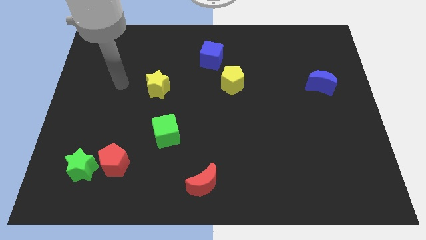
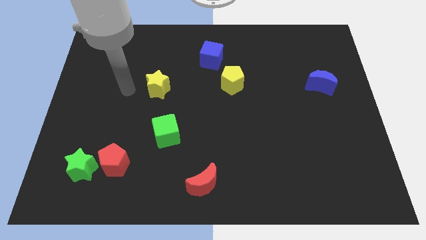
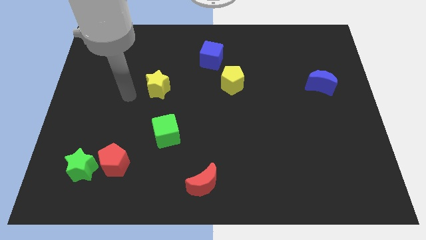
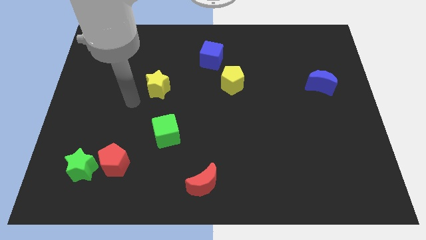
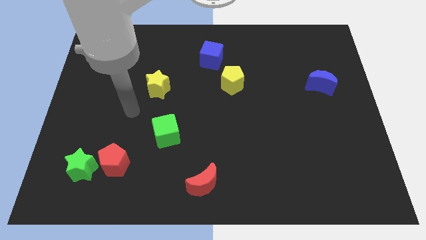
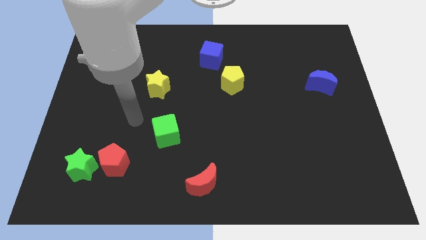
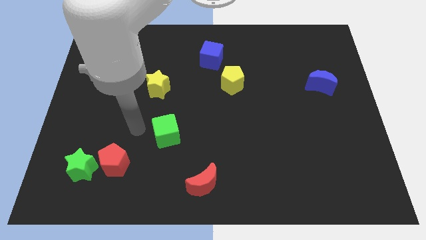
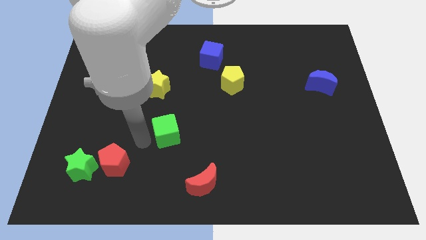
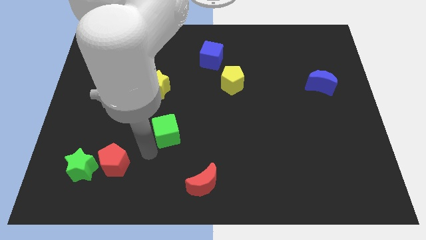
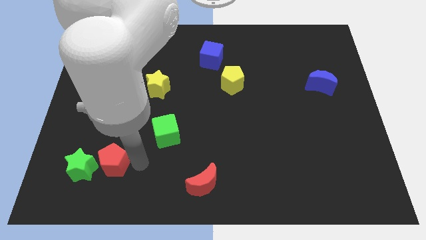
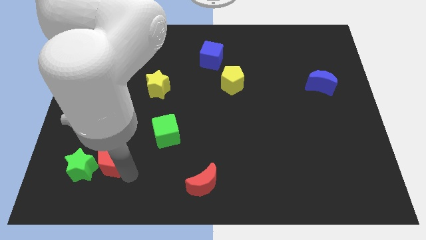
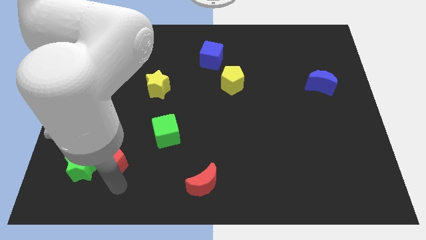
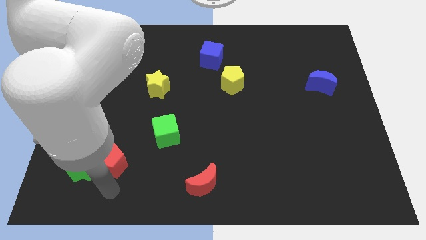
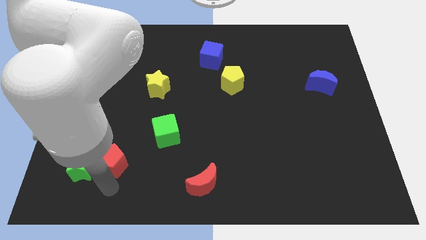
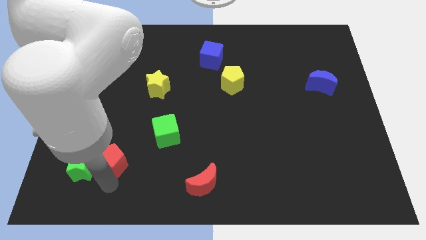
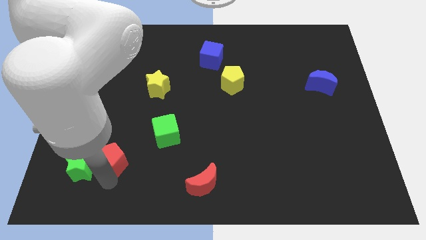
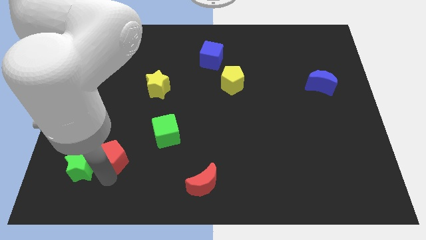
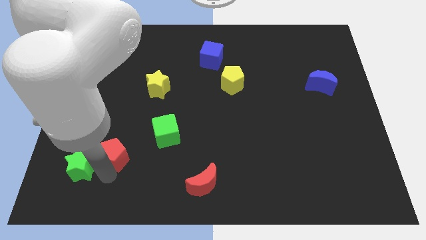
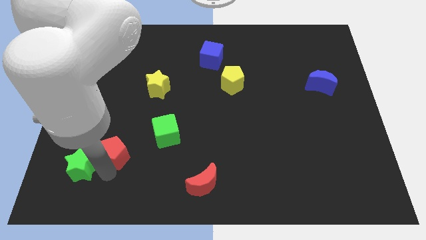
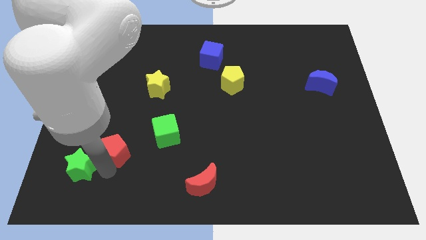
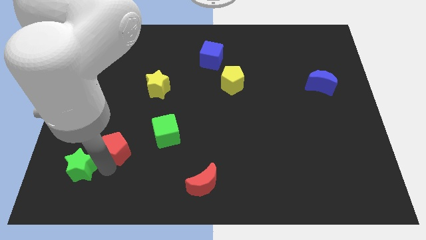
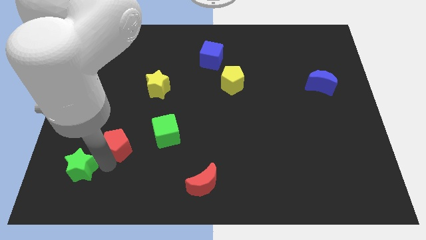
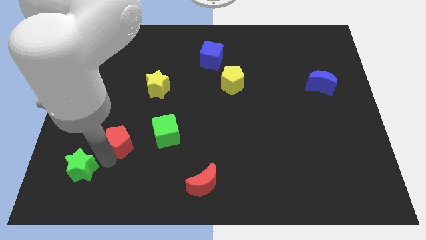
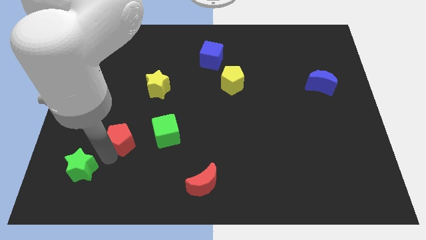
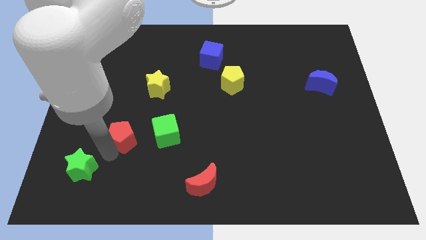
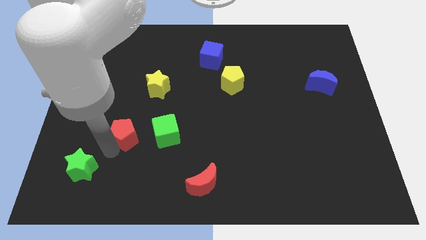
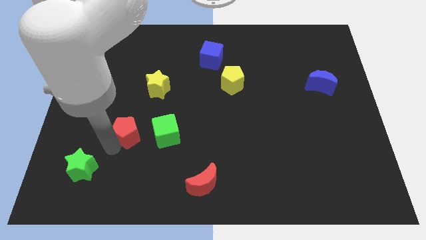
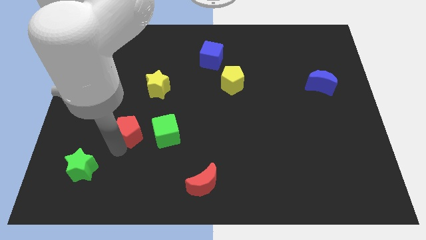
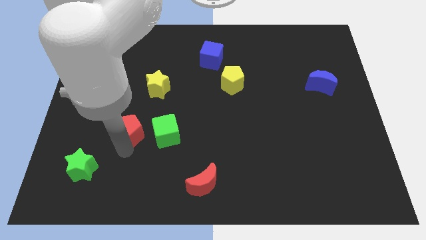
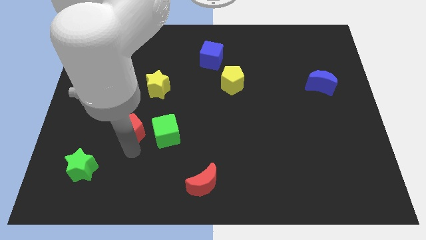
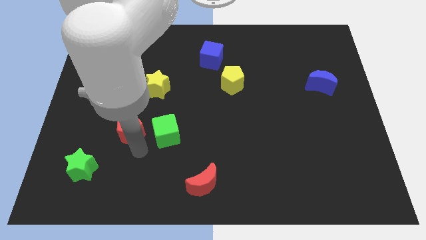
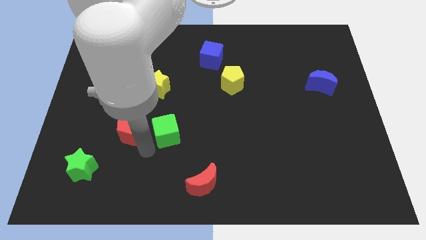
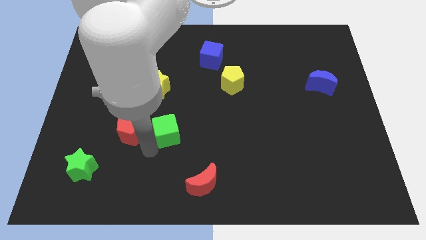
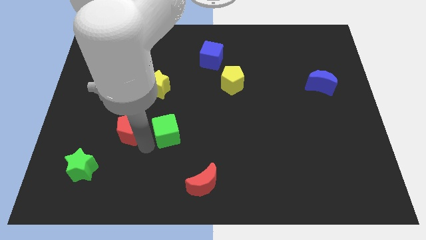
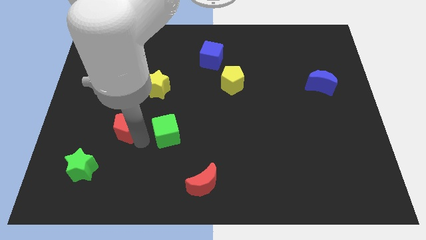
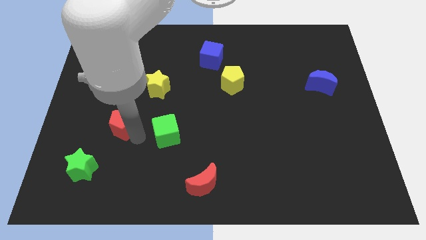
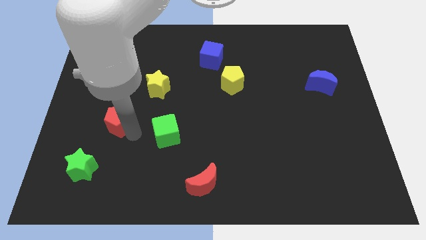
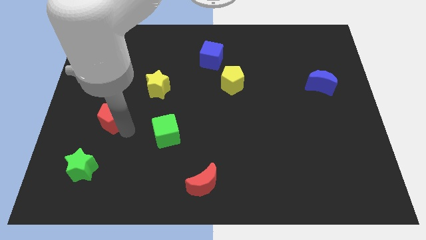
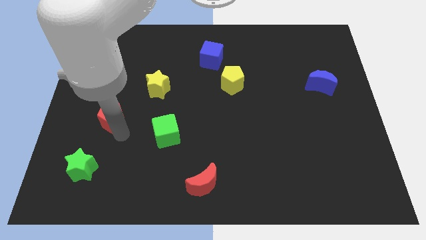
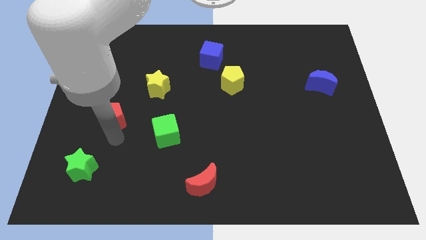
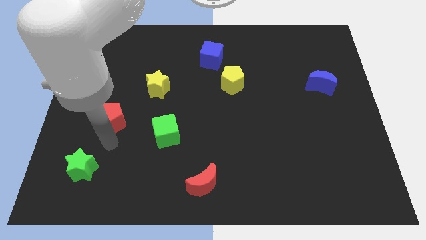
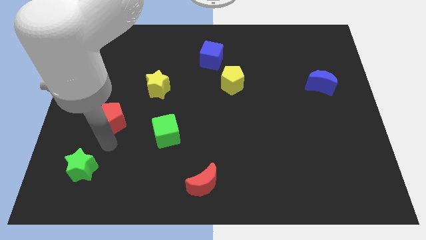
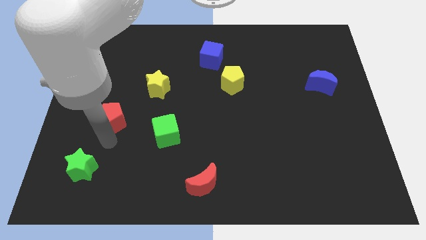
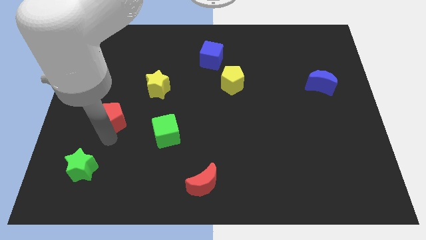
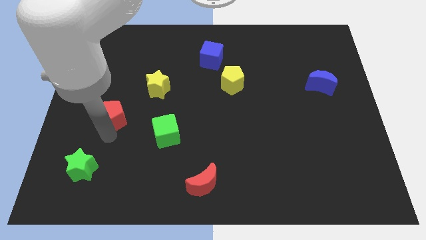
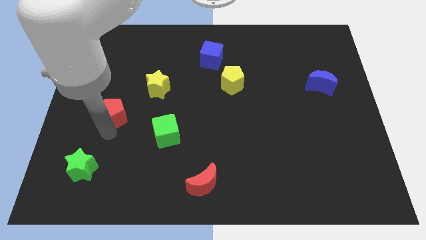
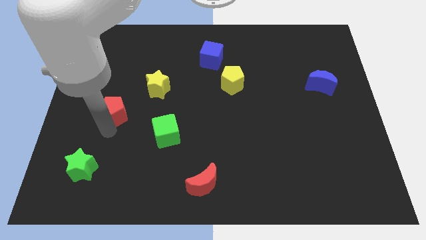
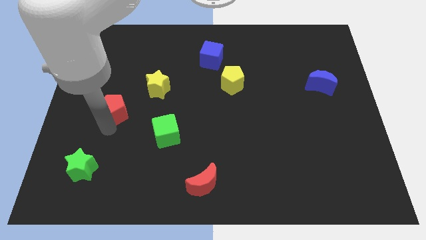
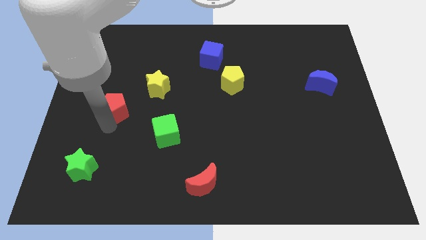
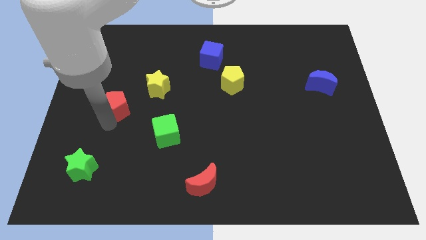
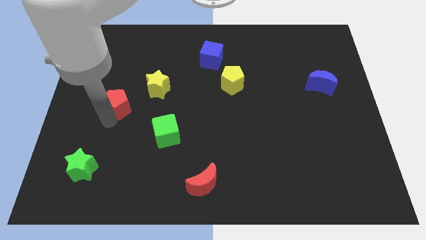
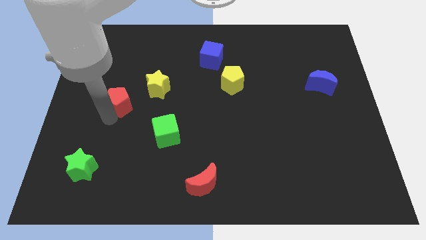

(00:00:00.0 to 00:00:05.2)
move the red pentagon to the left side of the yellow star

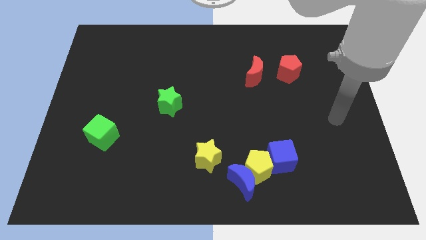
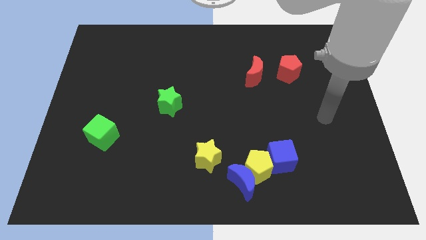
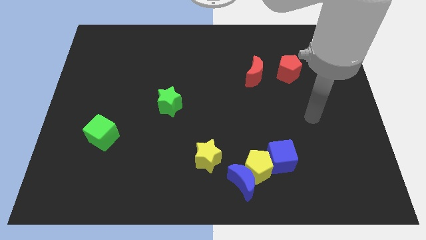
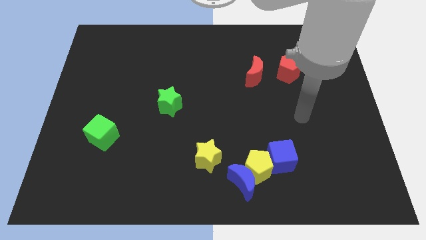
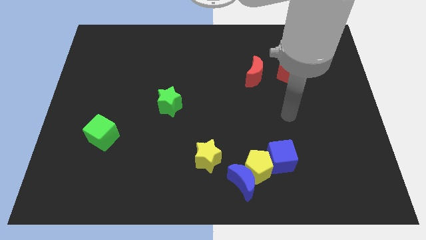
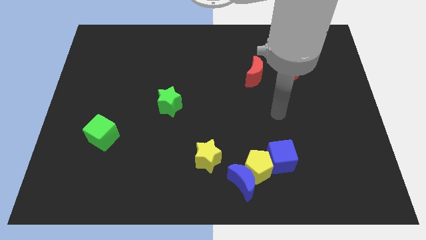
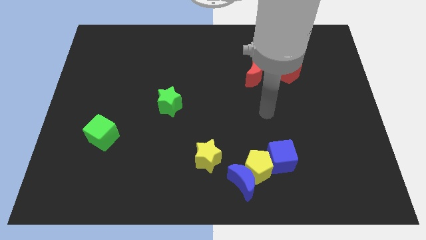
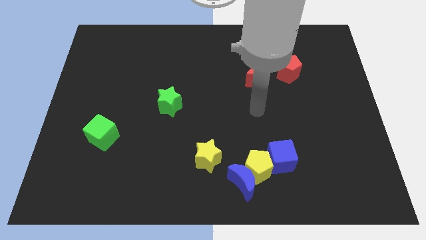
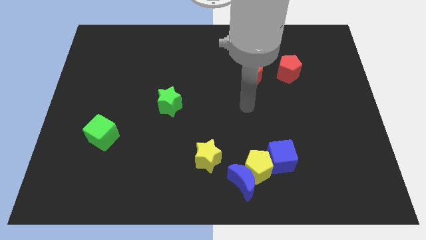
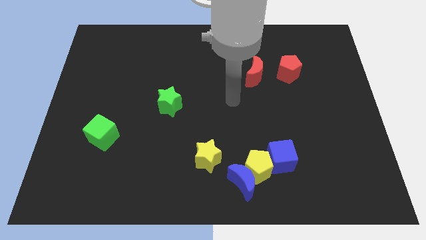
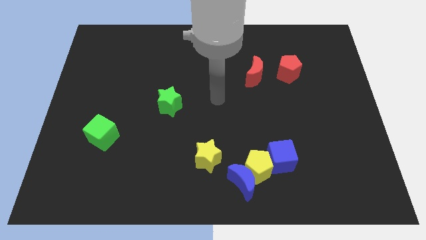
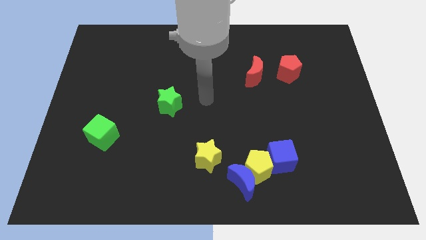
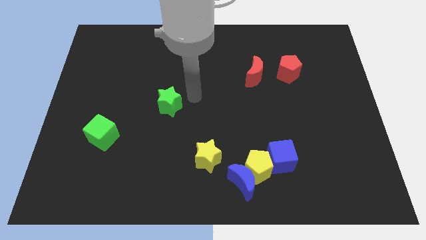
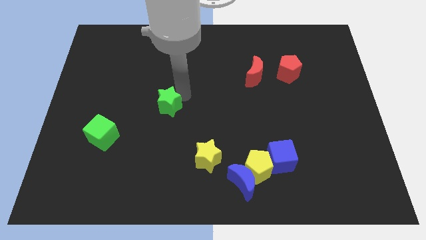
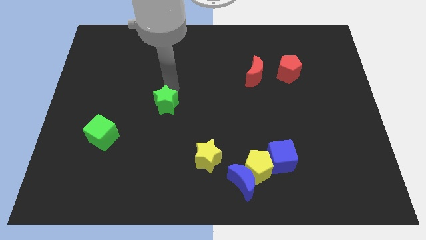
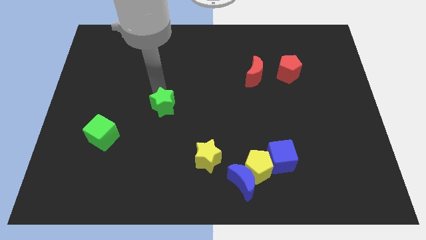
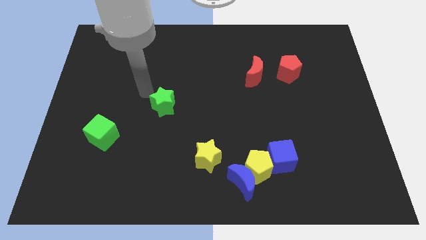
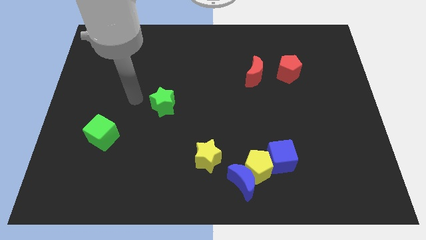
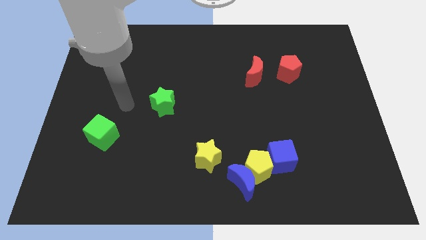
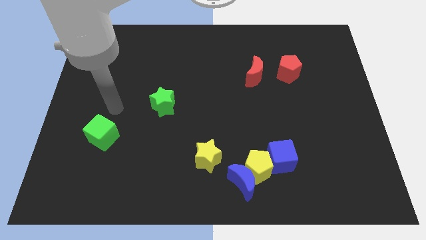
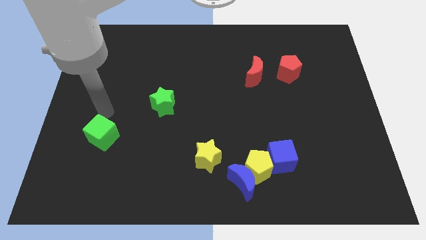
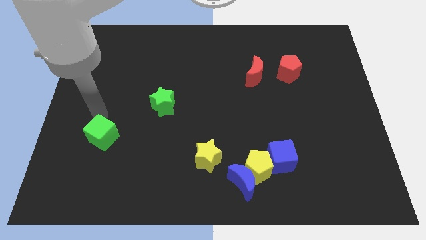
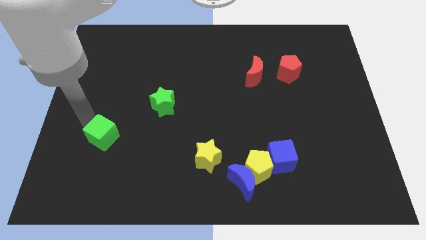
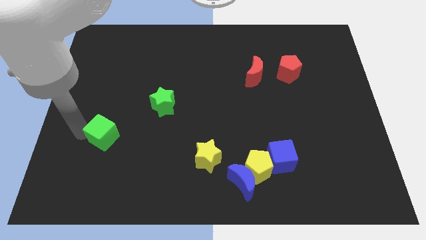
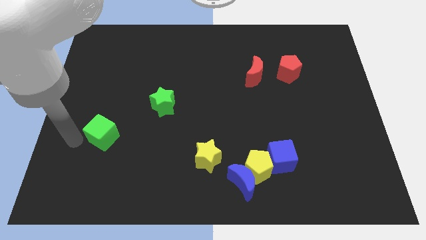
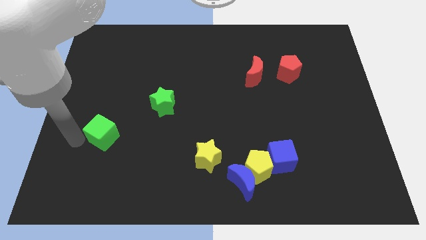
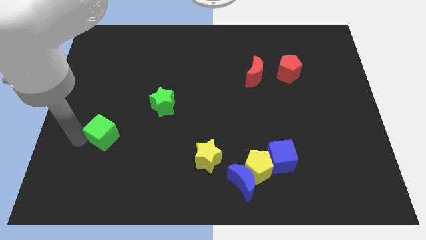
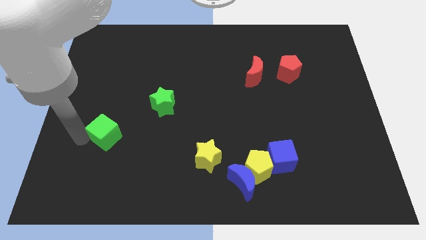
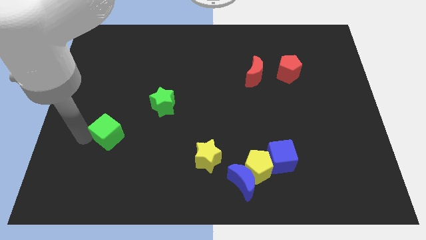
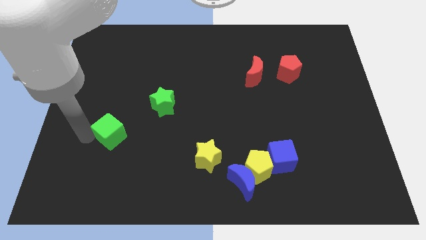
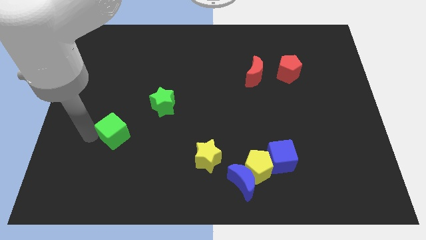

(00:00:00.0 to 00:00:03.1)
move the green cube to the bottom left side of the green star
